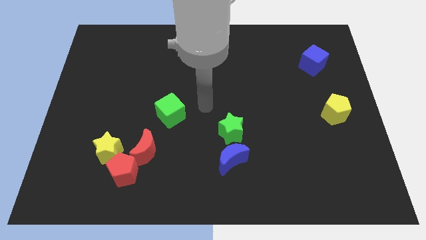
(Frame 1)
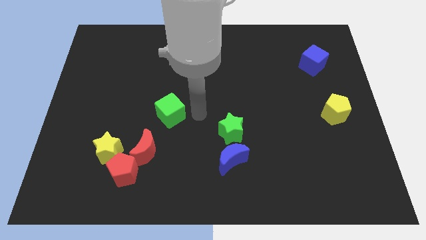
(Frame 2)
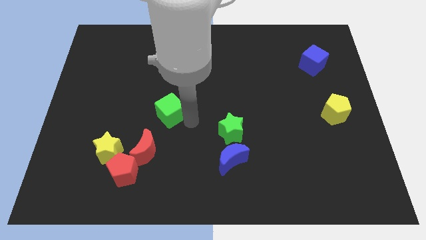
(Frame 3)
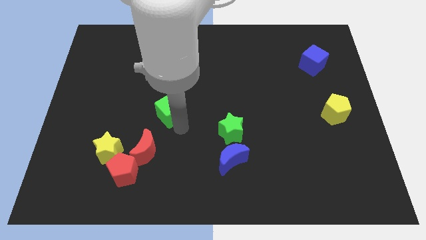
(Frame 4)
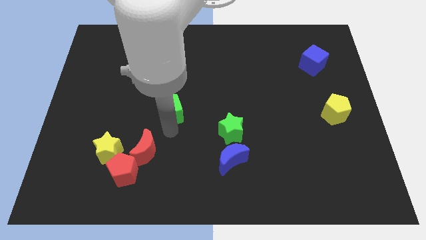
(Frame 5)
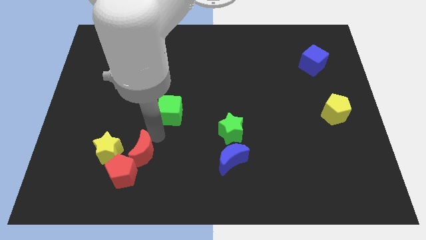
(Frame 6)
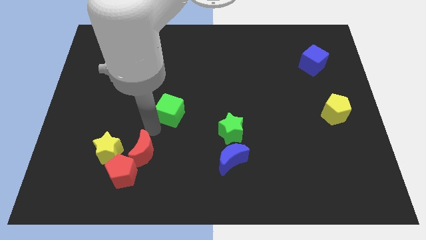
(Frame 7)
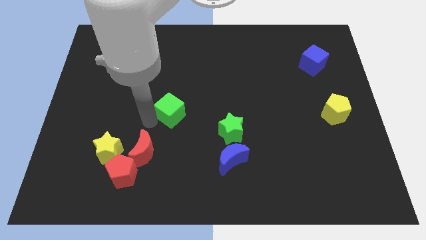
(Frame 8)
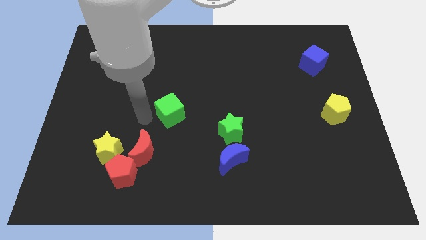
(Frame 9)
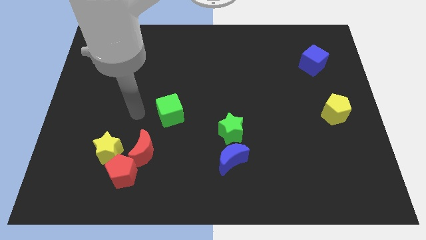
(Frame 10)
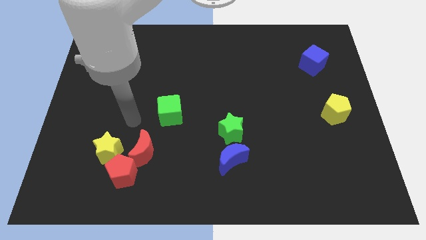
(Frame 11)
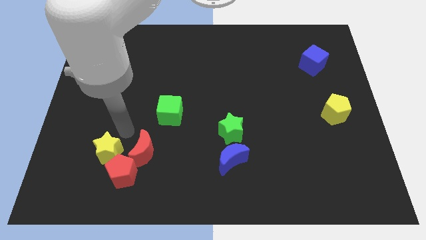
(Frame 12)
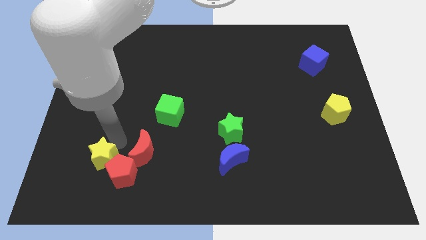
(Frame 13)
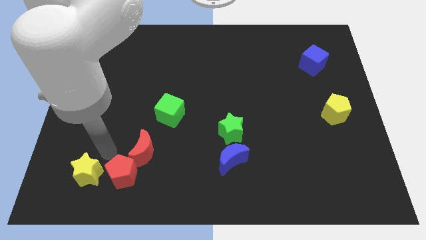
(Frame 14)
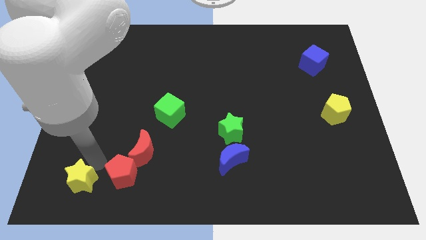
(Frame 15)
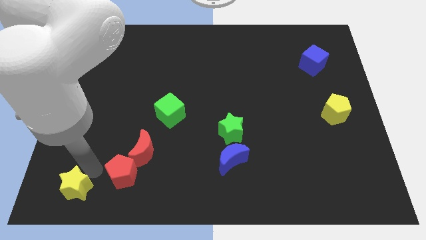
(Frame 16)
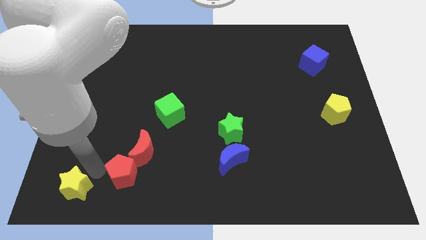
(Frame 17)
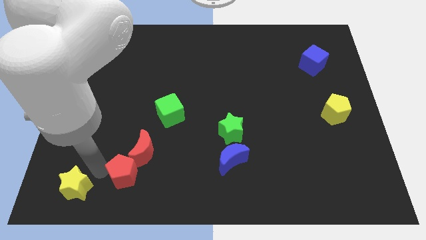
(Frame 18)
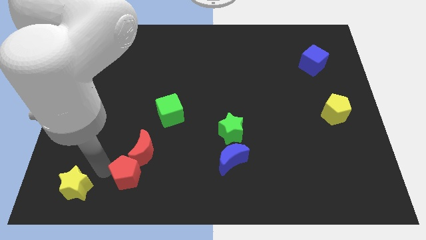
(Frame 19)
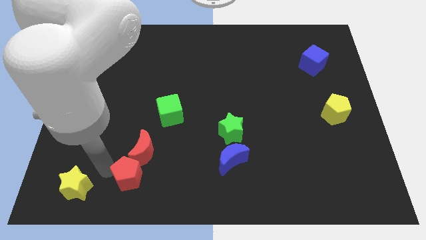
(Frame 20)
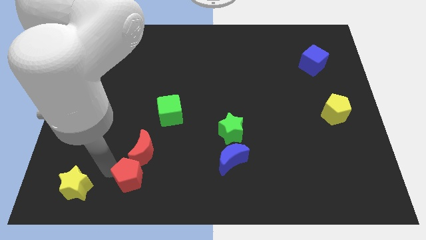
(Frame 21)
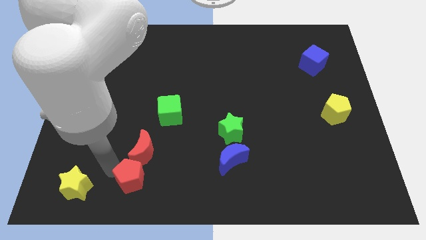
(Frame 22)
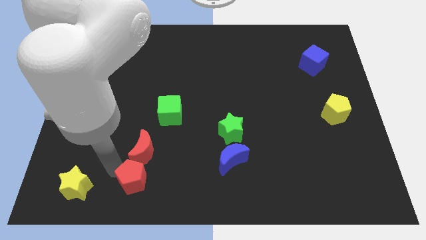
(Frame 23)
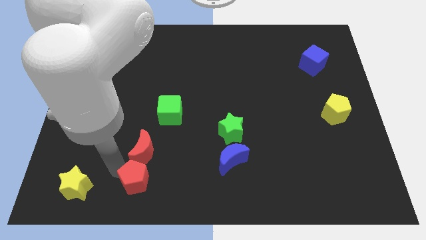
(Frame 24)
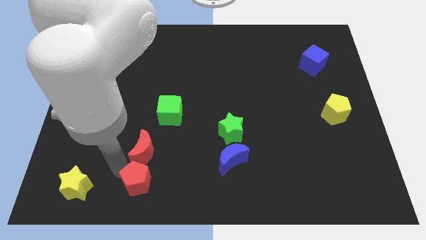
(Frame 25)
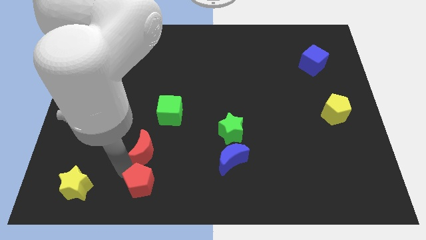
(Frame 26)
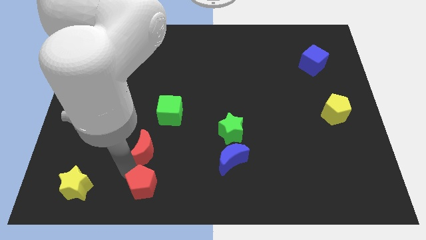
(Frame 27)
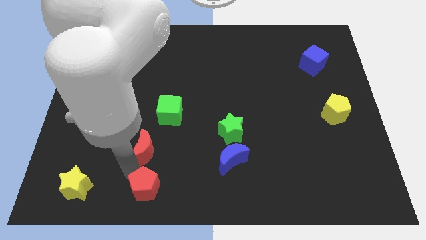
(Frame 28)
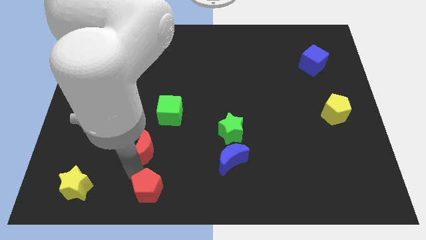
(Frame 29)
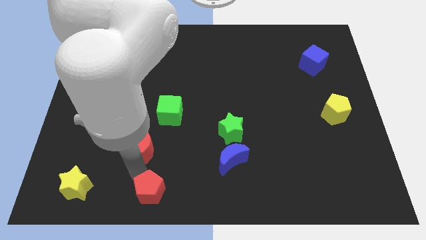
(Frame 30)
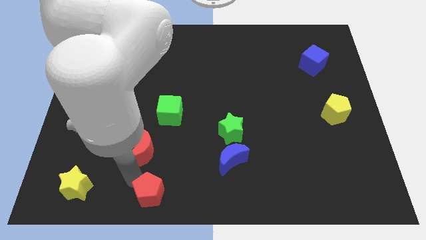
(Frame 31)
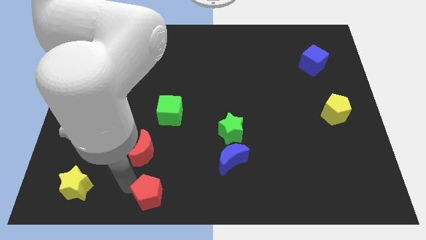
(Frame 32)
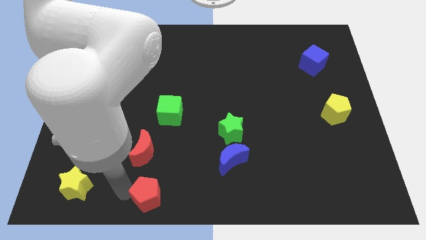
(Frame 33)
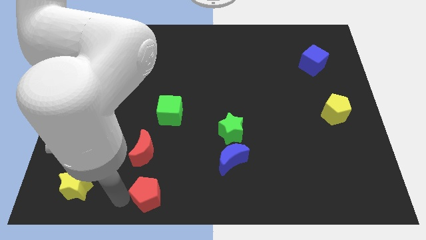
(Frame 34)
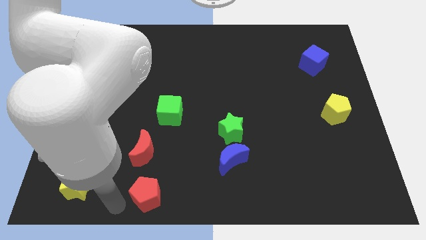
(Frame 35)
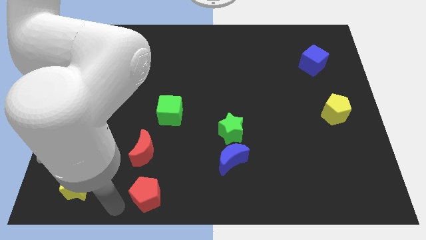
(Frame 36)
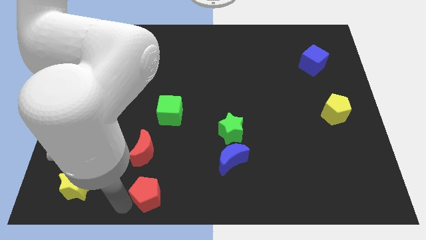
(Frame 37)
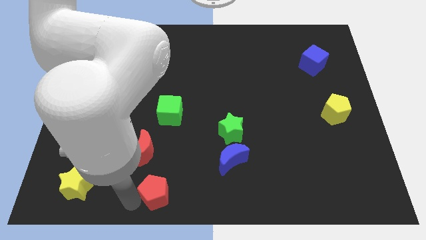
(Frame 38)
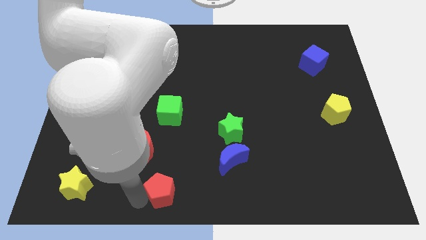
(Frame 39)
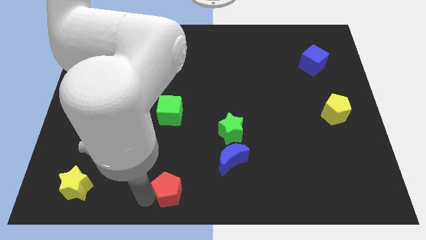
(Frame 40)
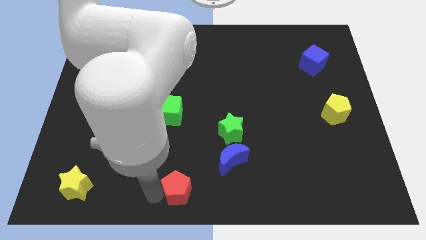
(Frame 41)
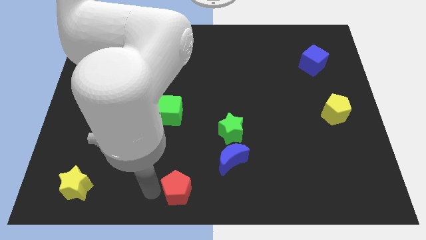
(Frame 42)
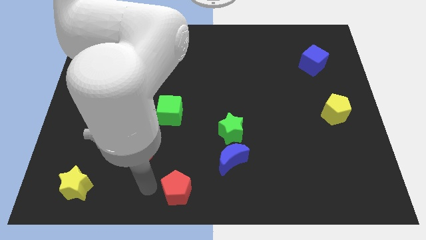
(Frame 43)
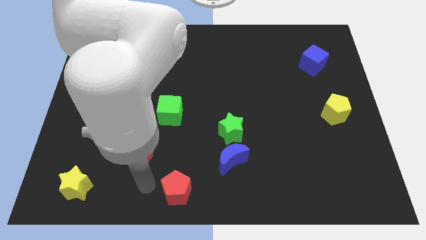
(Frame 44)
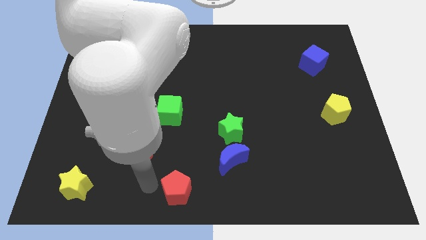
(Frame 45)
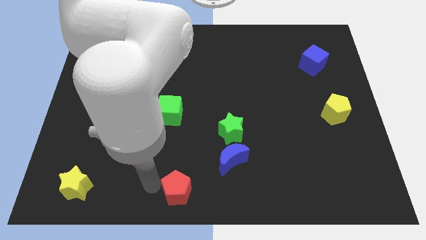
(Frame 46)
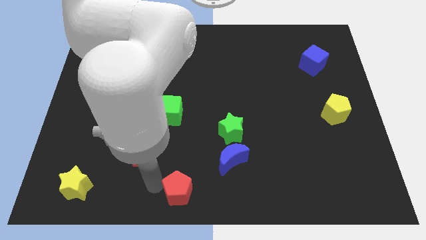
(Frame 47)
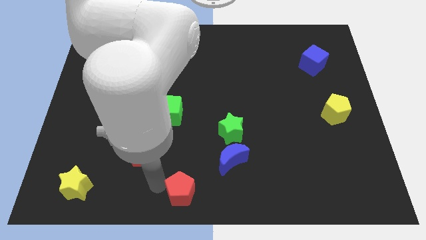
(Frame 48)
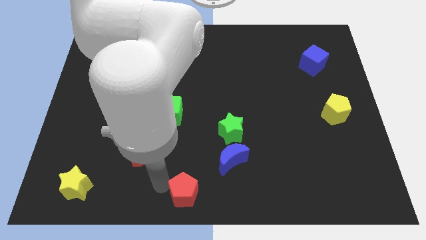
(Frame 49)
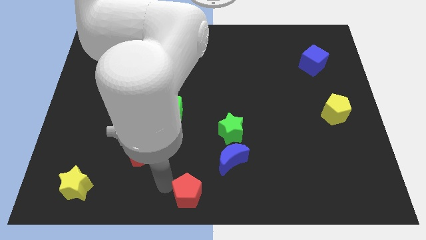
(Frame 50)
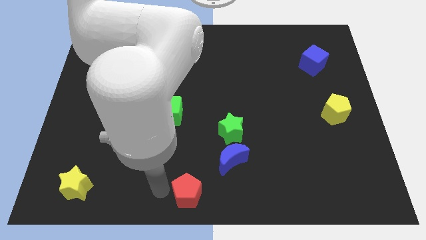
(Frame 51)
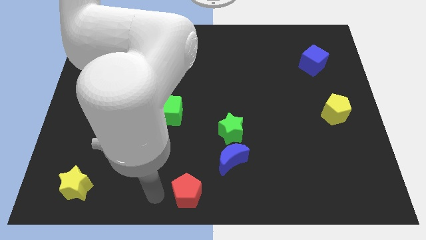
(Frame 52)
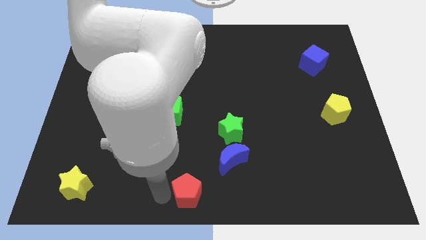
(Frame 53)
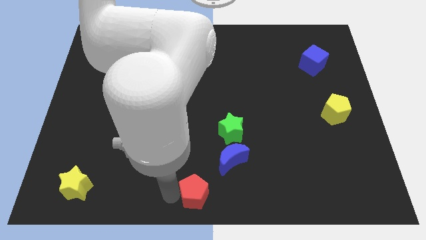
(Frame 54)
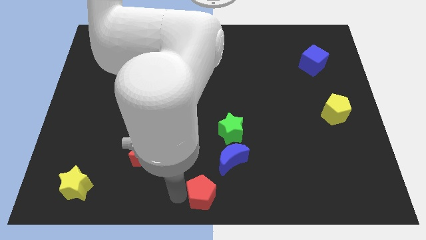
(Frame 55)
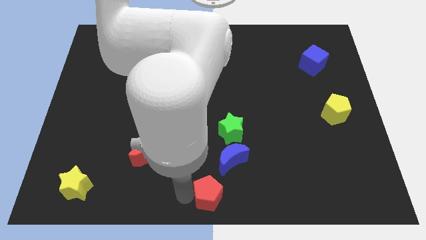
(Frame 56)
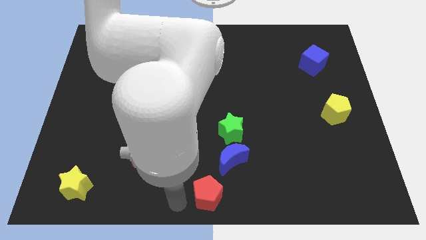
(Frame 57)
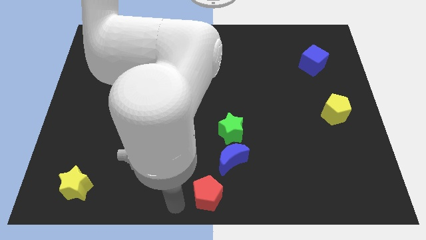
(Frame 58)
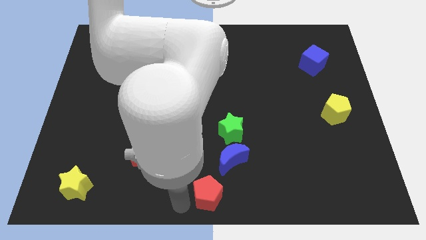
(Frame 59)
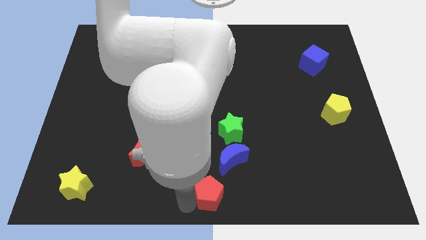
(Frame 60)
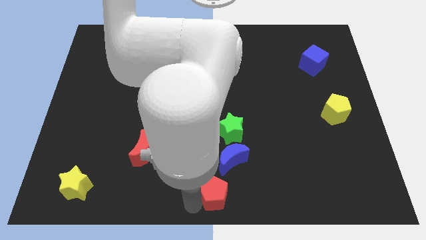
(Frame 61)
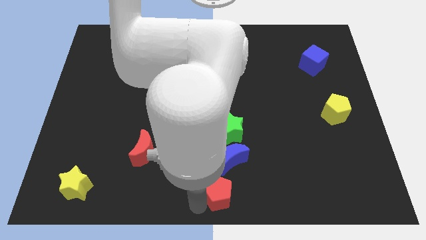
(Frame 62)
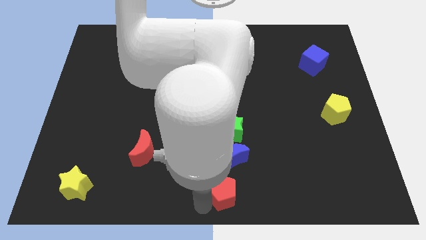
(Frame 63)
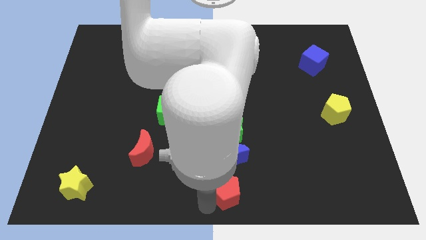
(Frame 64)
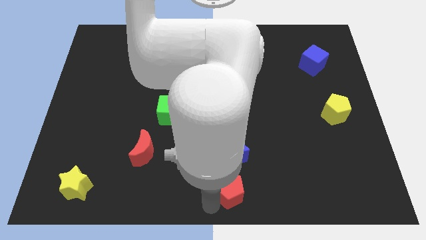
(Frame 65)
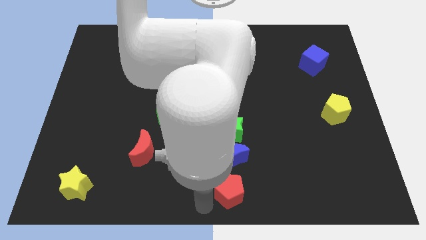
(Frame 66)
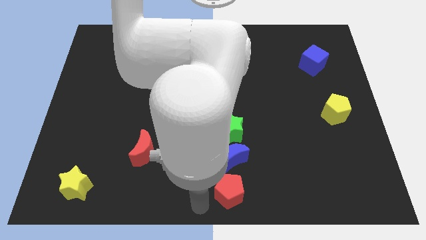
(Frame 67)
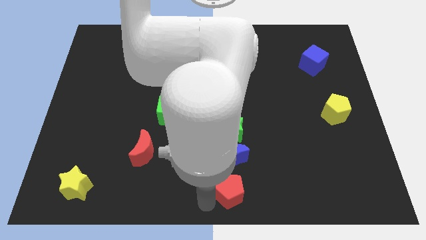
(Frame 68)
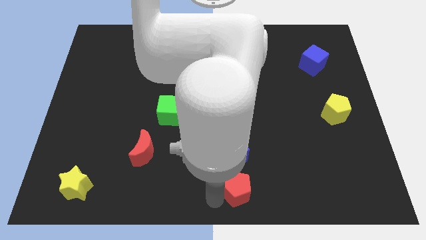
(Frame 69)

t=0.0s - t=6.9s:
move the red pentagon diagonally down and to the right of the blue moon

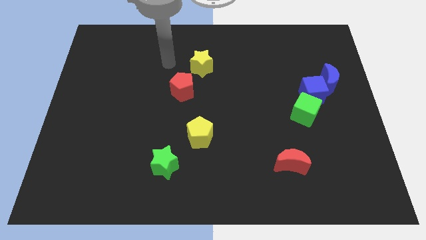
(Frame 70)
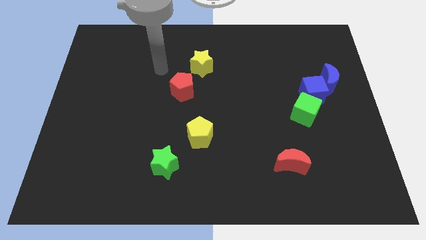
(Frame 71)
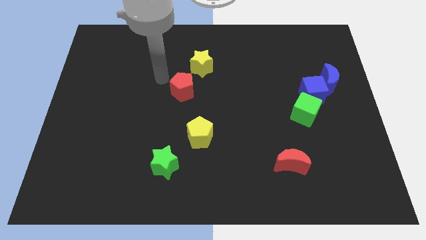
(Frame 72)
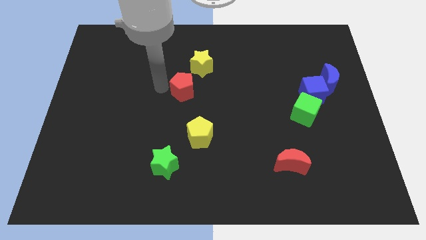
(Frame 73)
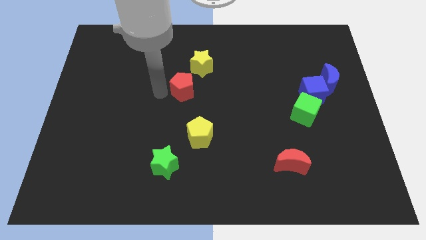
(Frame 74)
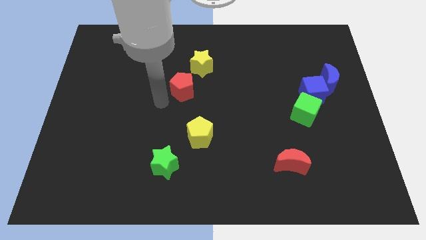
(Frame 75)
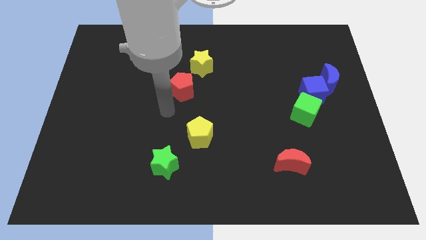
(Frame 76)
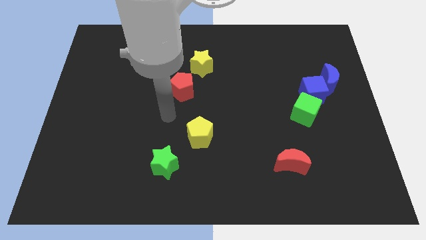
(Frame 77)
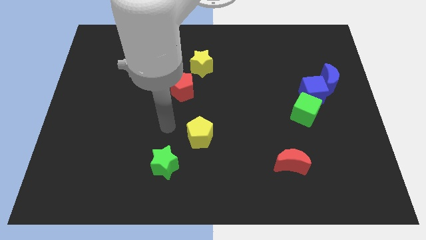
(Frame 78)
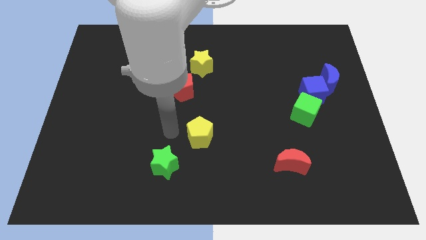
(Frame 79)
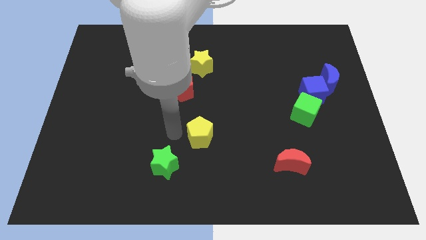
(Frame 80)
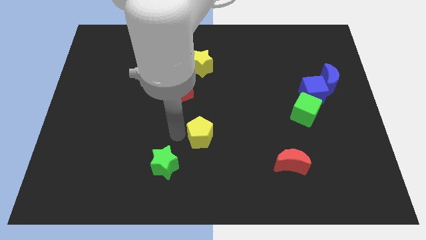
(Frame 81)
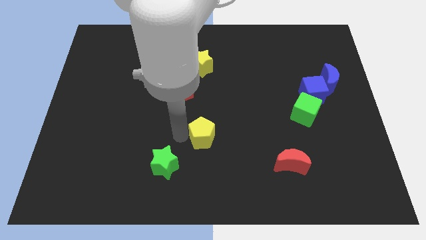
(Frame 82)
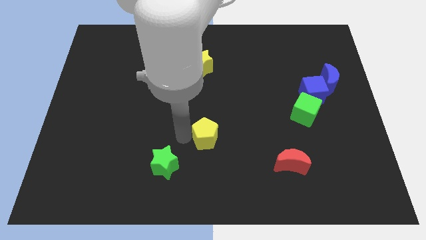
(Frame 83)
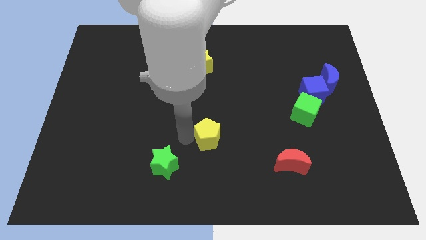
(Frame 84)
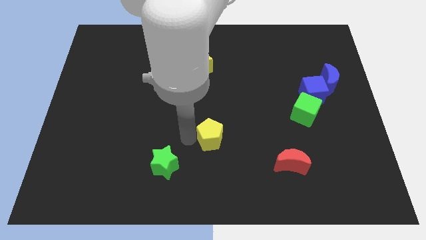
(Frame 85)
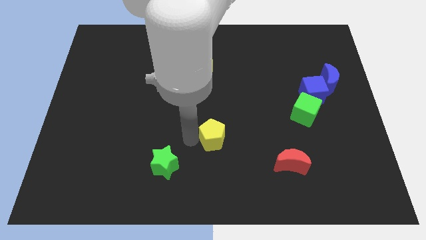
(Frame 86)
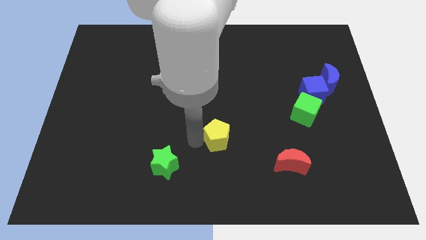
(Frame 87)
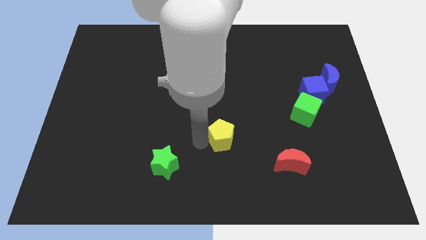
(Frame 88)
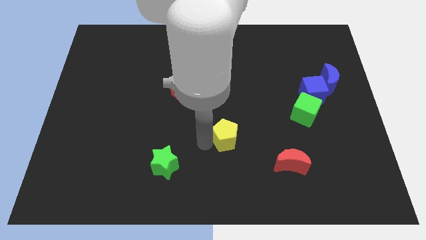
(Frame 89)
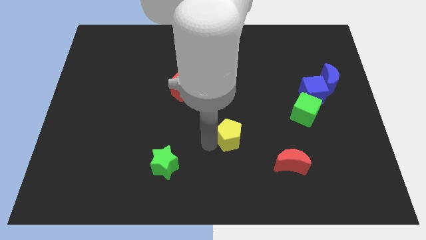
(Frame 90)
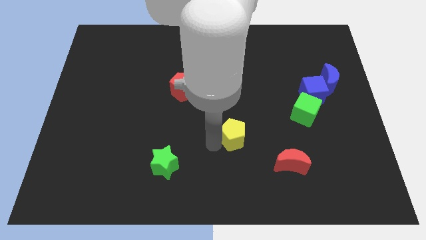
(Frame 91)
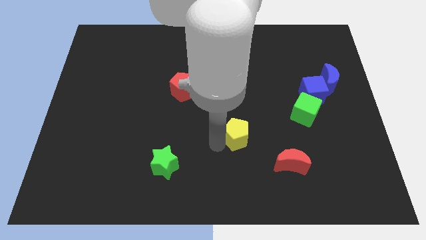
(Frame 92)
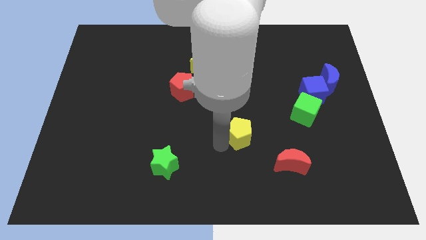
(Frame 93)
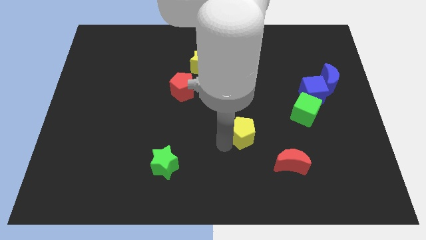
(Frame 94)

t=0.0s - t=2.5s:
move the yellow pentagon to the top left side of the red moon
